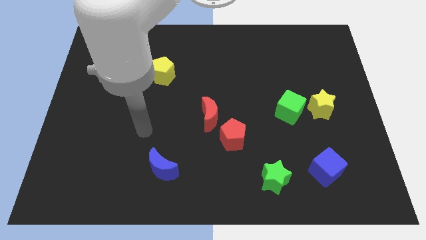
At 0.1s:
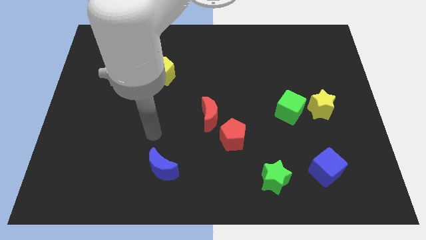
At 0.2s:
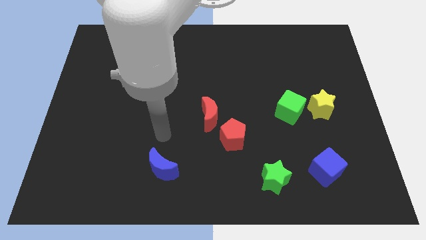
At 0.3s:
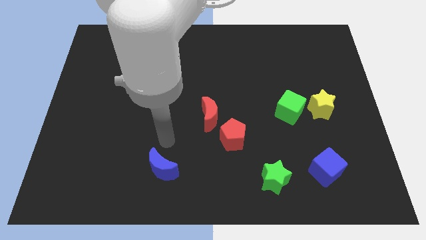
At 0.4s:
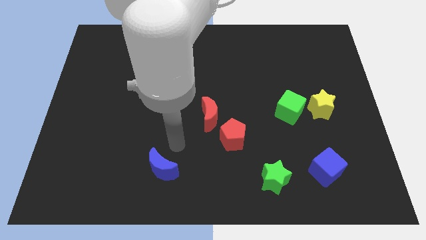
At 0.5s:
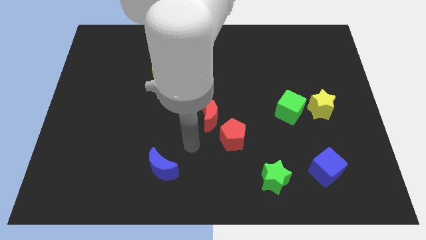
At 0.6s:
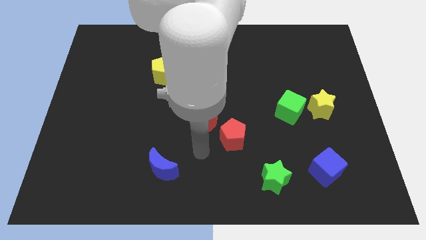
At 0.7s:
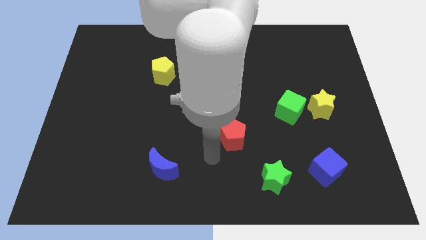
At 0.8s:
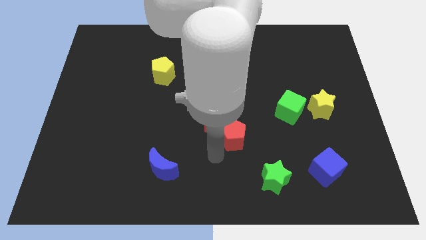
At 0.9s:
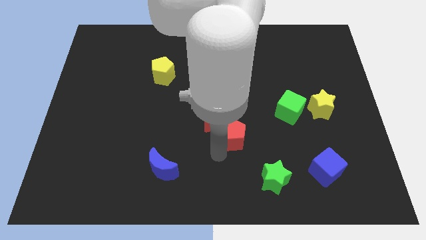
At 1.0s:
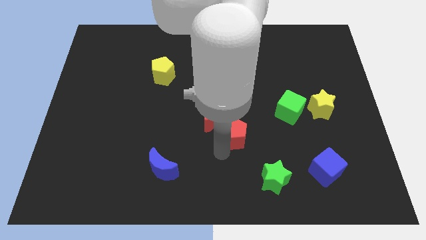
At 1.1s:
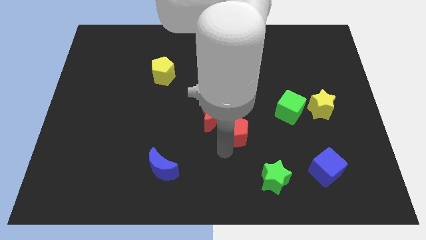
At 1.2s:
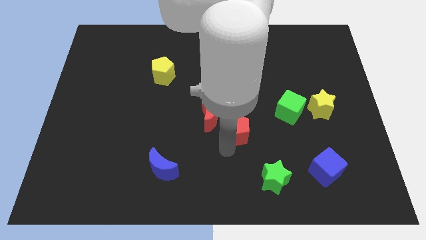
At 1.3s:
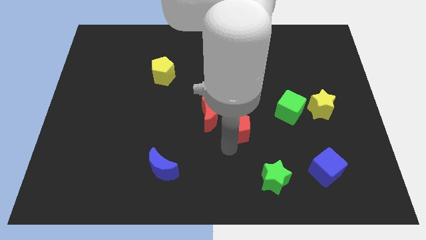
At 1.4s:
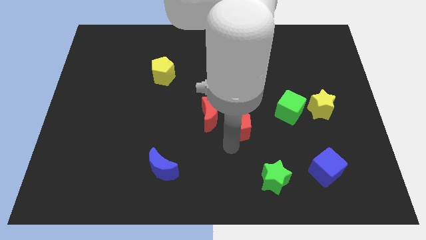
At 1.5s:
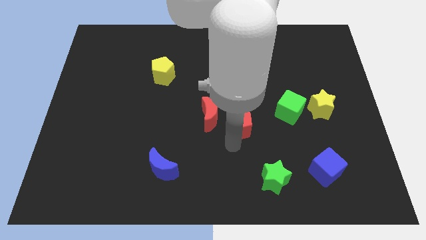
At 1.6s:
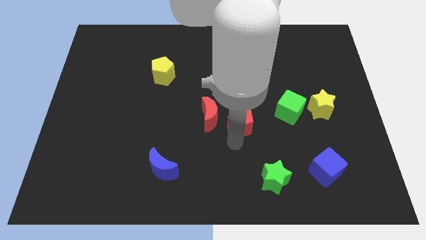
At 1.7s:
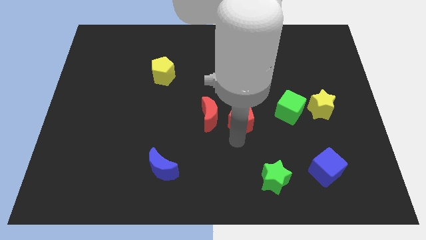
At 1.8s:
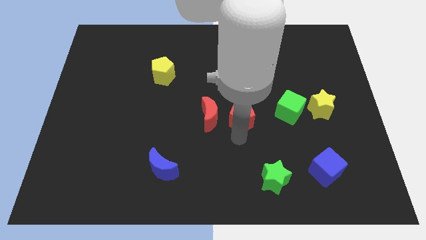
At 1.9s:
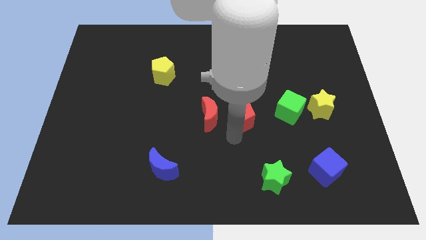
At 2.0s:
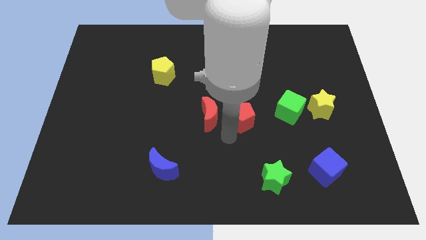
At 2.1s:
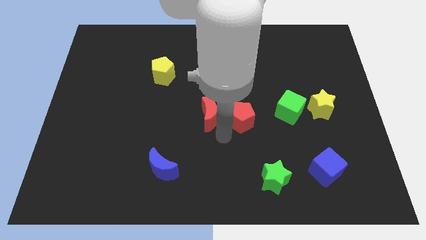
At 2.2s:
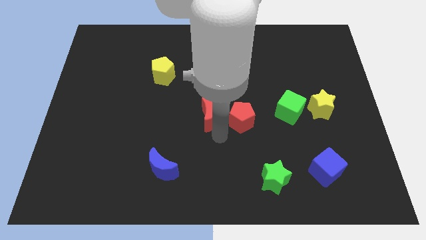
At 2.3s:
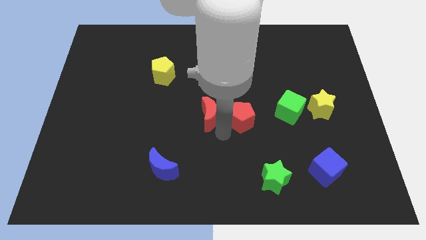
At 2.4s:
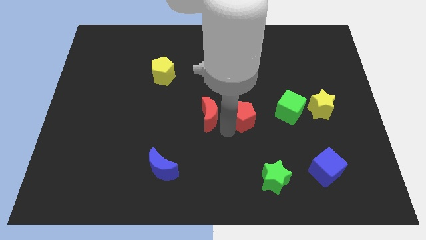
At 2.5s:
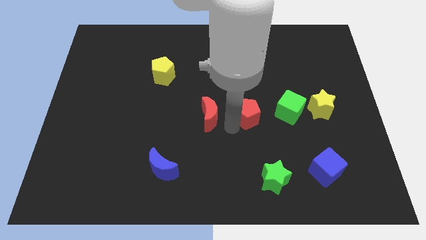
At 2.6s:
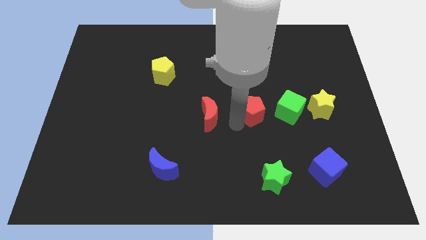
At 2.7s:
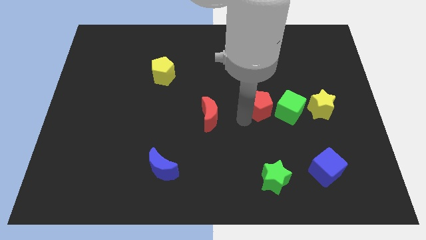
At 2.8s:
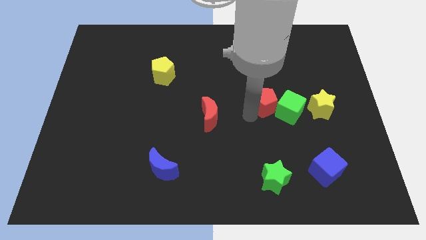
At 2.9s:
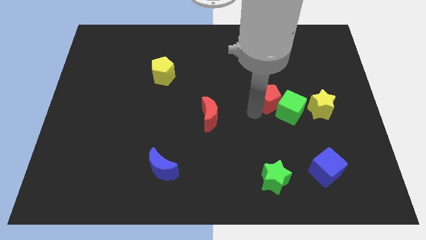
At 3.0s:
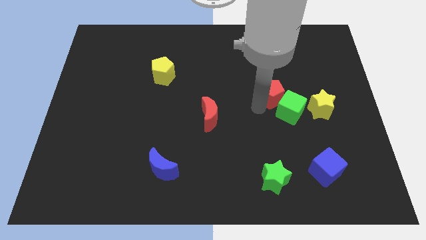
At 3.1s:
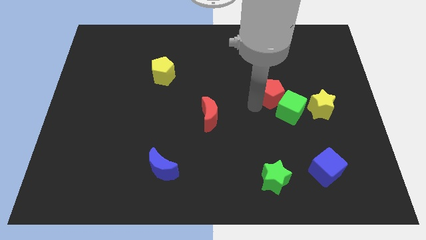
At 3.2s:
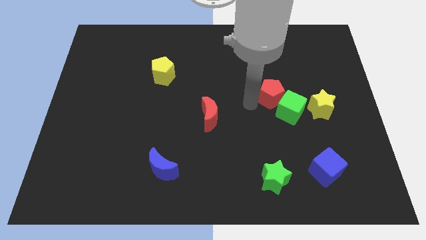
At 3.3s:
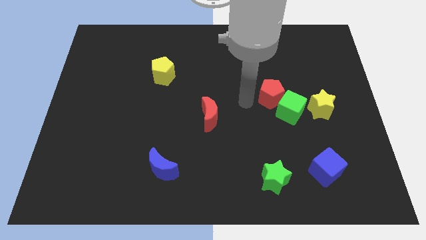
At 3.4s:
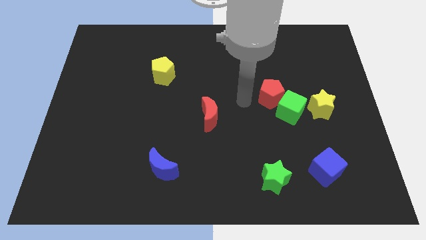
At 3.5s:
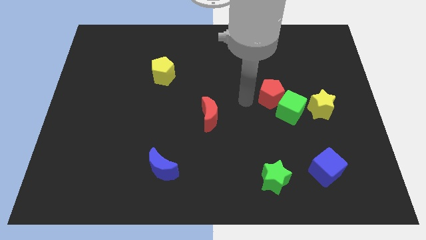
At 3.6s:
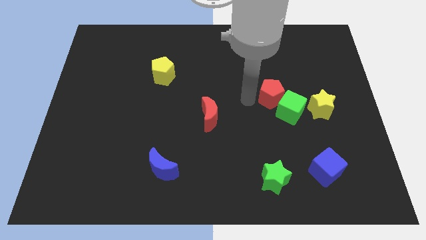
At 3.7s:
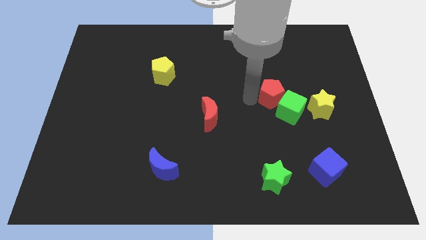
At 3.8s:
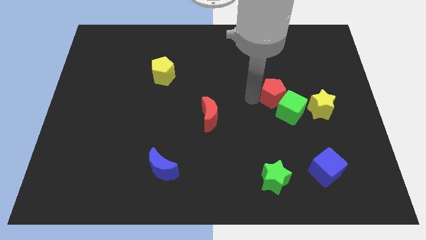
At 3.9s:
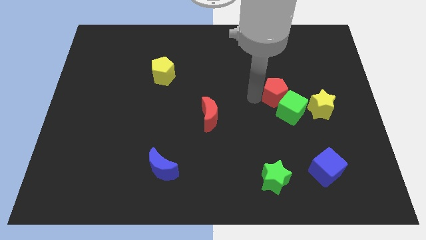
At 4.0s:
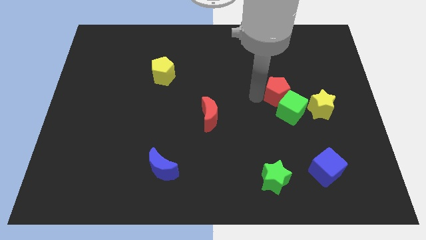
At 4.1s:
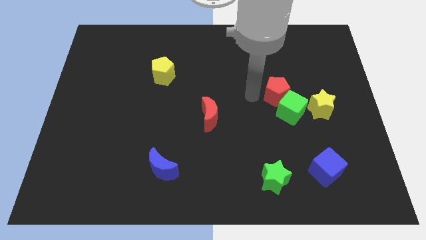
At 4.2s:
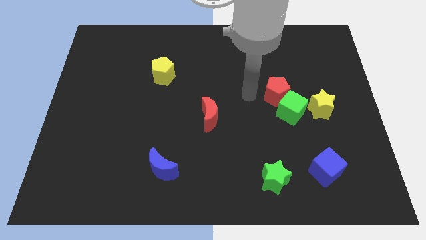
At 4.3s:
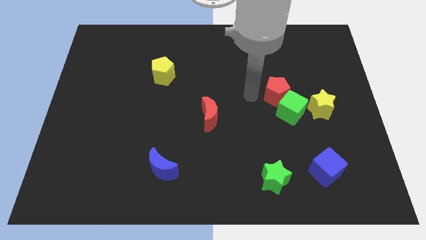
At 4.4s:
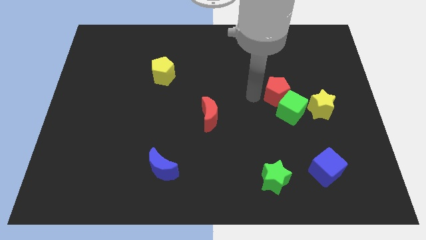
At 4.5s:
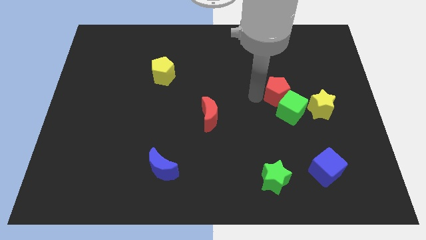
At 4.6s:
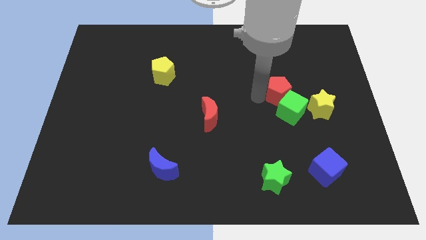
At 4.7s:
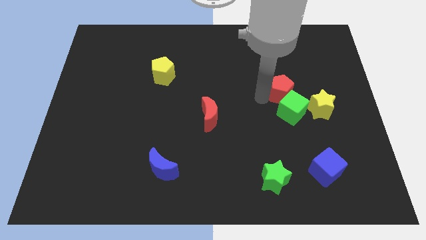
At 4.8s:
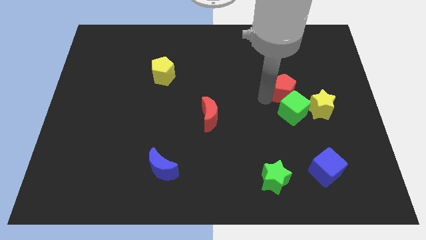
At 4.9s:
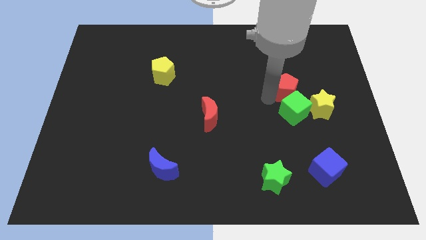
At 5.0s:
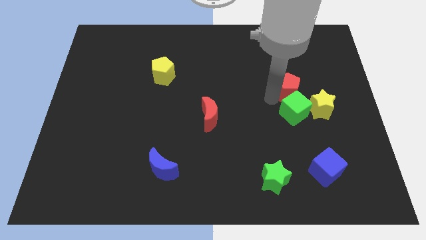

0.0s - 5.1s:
put the red pentagon diagonally up and to the right of the green cube

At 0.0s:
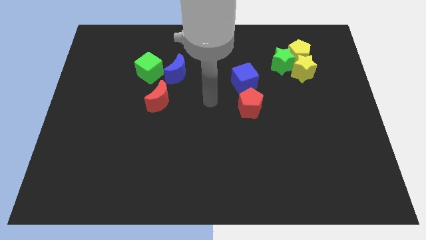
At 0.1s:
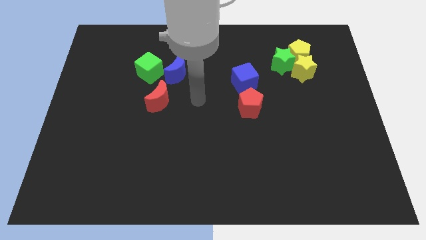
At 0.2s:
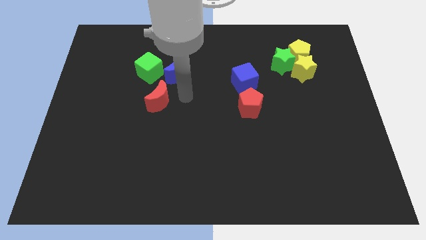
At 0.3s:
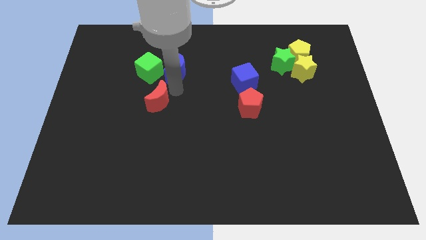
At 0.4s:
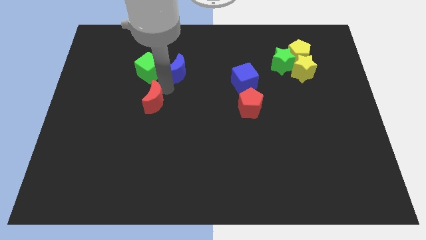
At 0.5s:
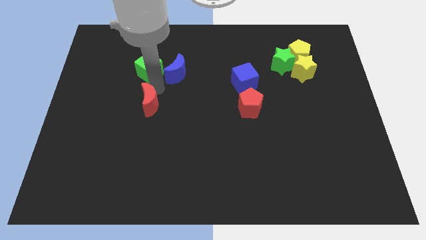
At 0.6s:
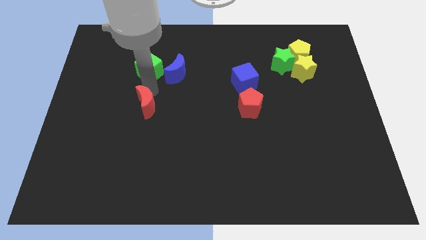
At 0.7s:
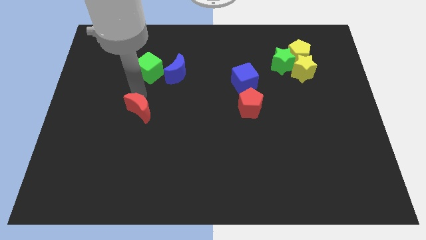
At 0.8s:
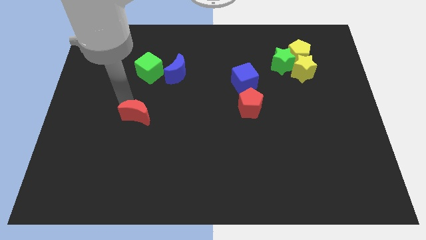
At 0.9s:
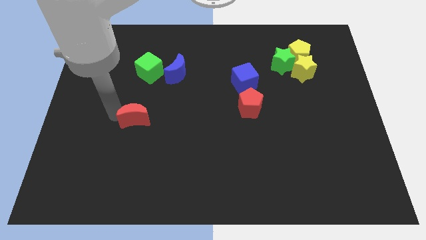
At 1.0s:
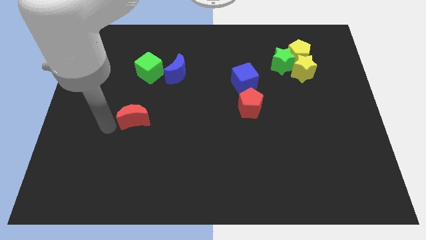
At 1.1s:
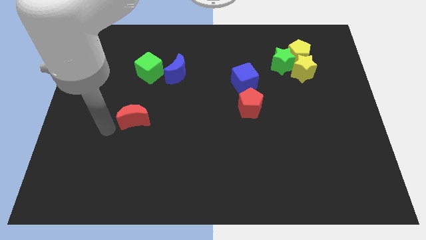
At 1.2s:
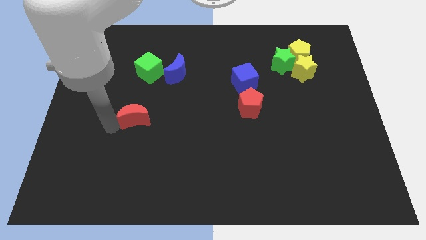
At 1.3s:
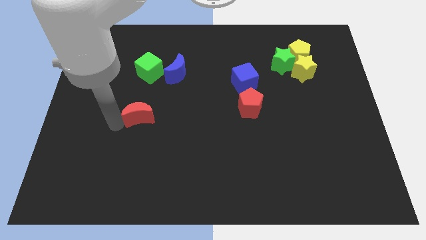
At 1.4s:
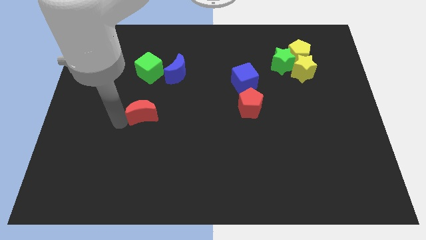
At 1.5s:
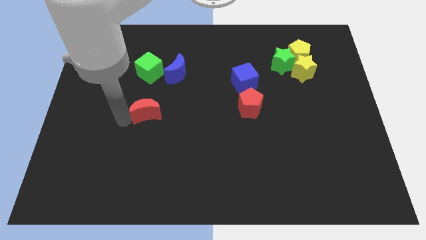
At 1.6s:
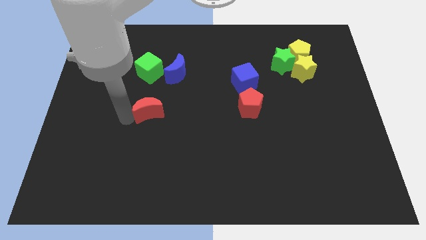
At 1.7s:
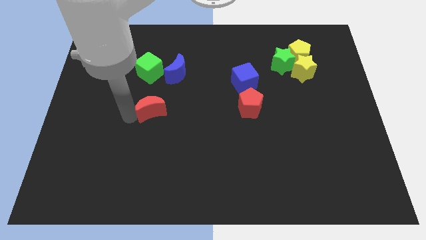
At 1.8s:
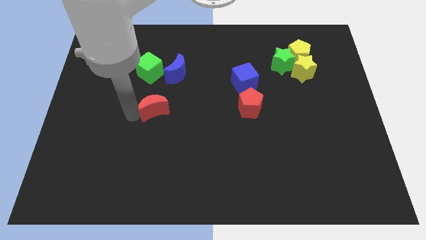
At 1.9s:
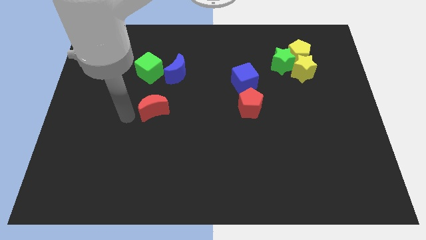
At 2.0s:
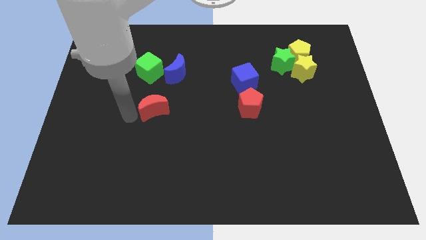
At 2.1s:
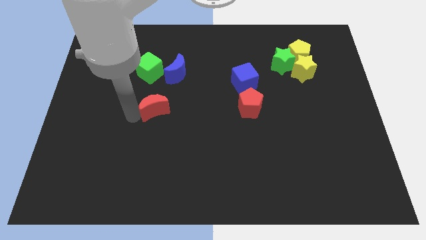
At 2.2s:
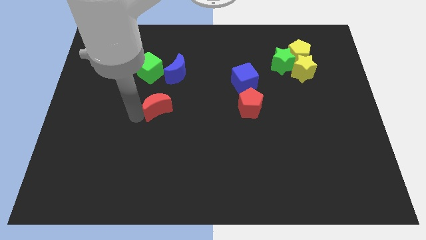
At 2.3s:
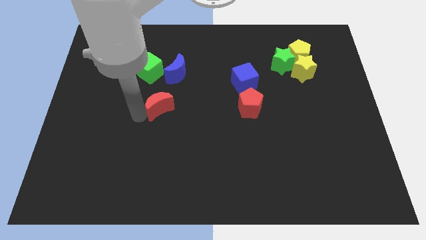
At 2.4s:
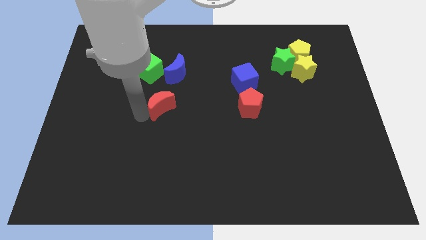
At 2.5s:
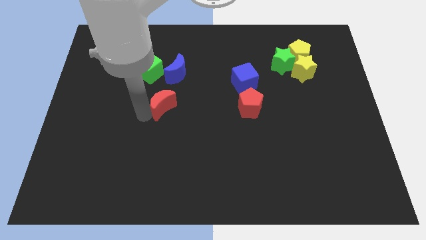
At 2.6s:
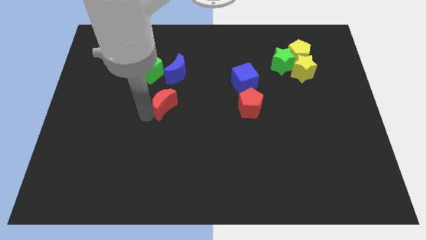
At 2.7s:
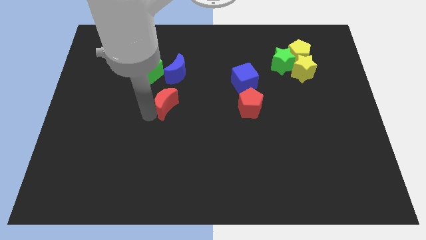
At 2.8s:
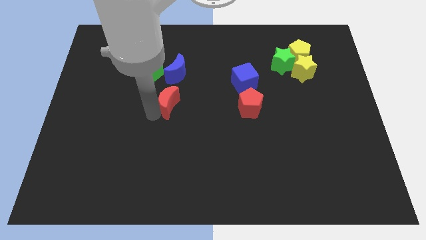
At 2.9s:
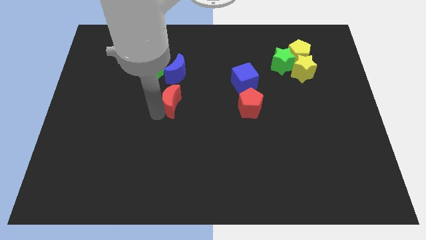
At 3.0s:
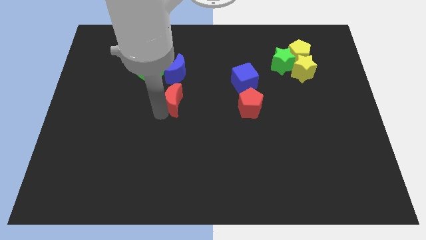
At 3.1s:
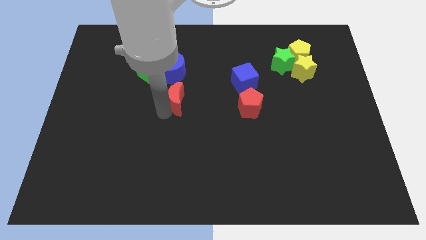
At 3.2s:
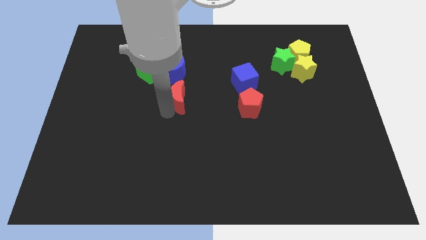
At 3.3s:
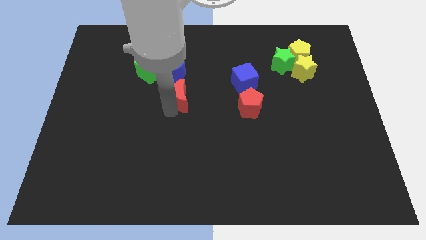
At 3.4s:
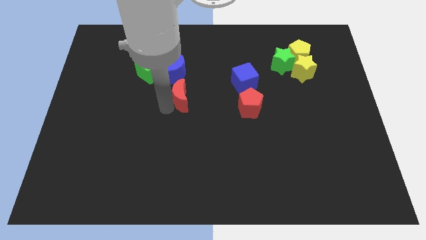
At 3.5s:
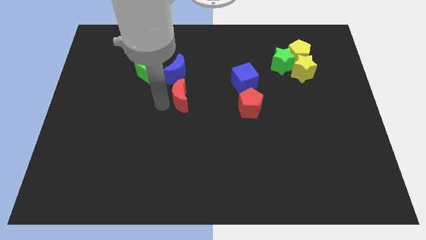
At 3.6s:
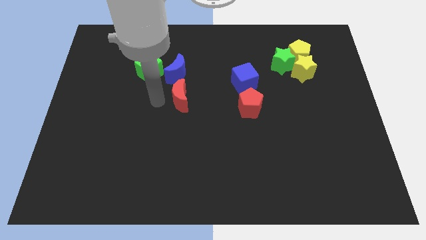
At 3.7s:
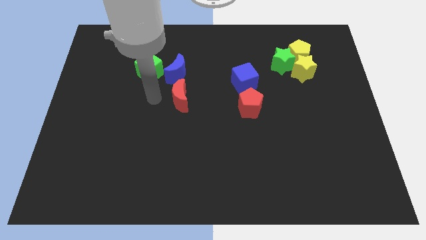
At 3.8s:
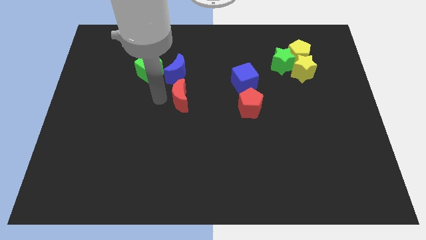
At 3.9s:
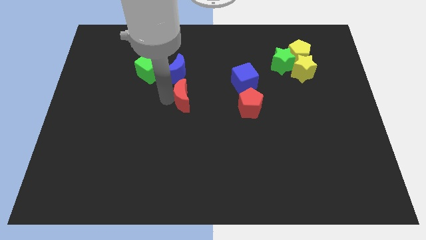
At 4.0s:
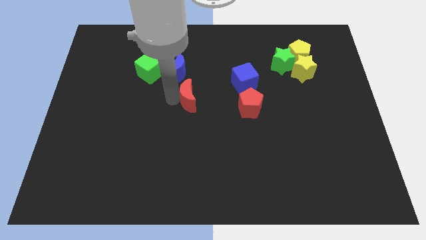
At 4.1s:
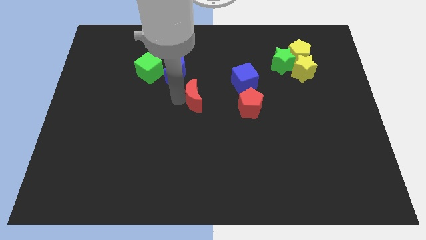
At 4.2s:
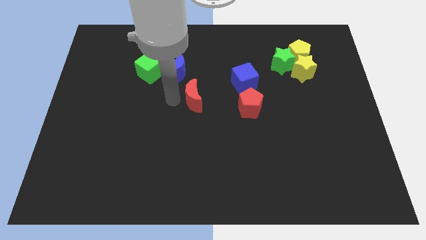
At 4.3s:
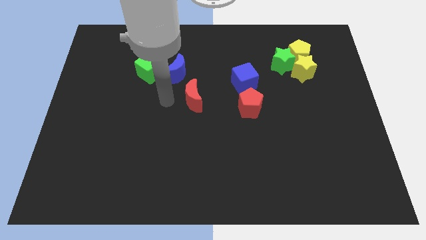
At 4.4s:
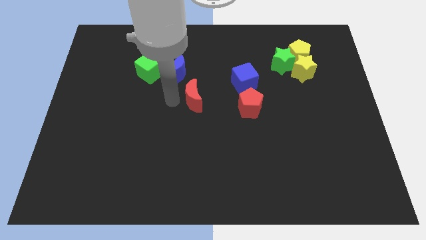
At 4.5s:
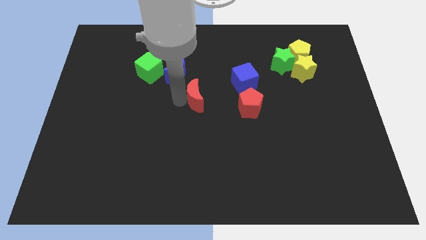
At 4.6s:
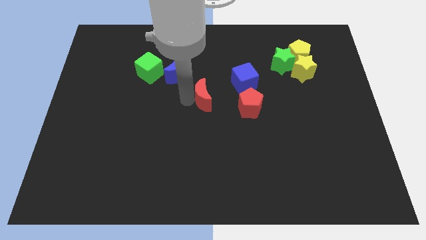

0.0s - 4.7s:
slide the red moon to the bottom left side of the blue cube
